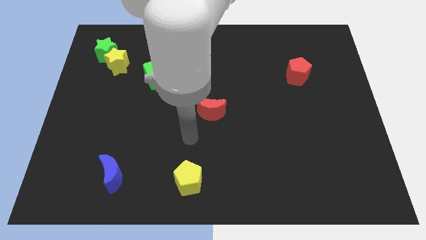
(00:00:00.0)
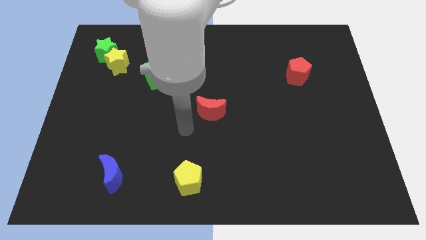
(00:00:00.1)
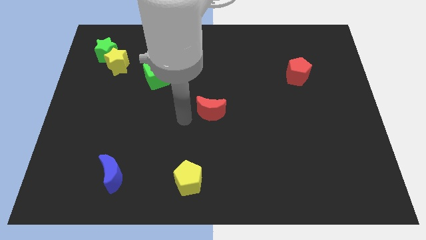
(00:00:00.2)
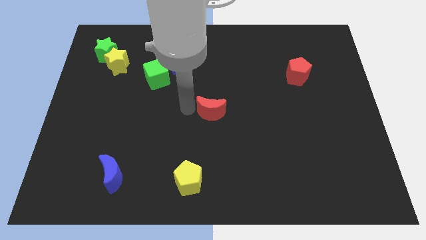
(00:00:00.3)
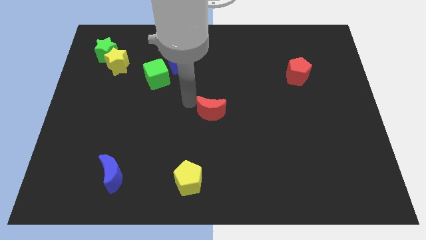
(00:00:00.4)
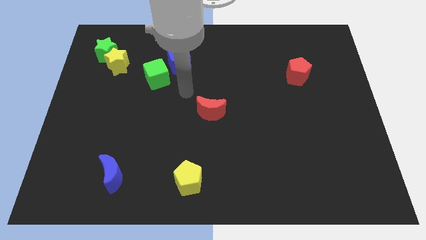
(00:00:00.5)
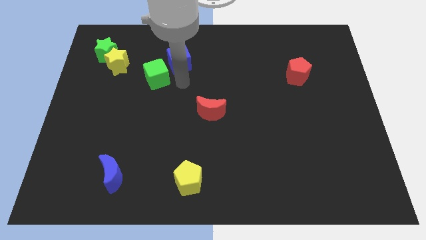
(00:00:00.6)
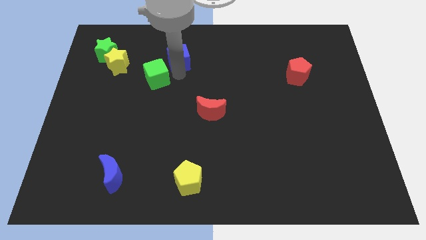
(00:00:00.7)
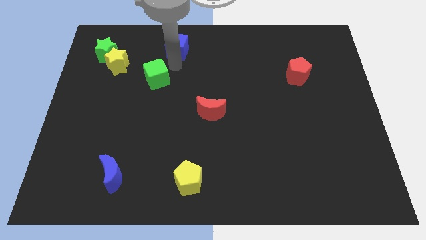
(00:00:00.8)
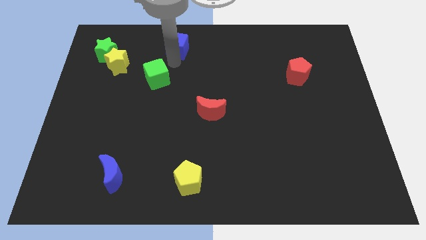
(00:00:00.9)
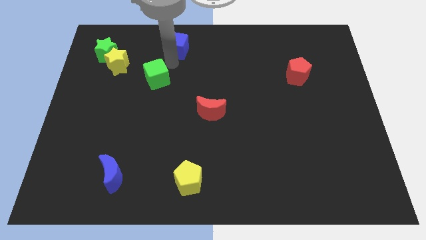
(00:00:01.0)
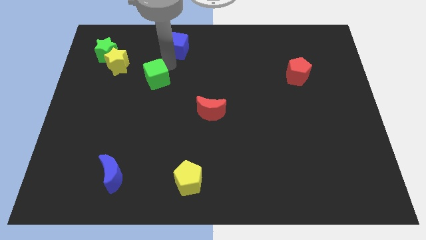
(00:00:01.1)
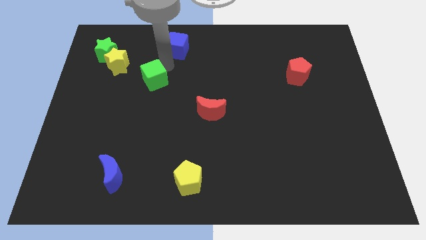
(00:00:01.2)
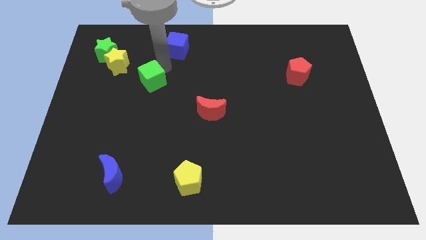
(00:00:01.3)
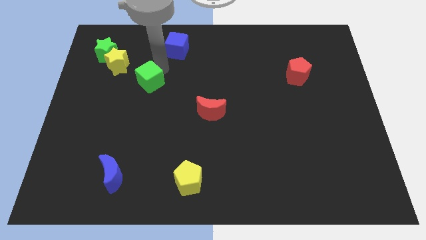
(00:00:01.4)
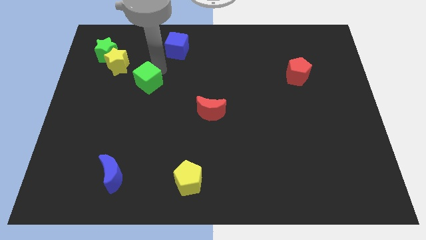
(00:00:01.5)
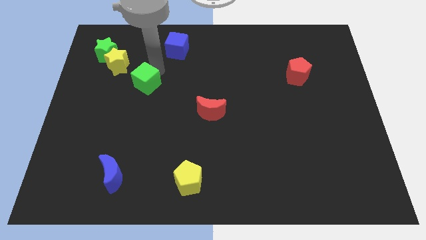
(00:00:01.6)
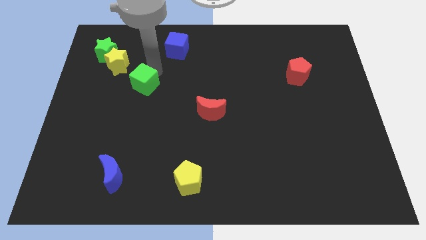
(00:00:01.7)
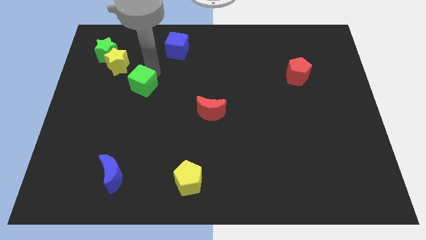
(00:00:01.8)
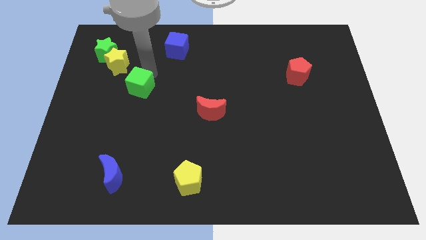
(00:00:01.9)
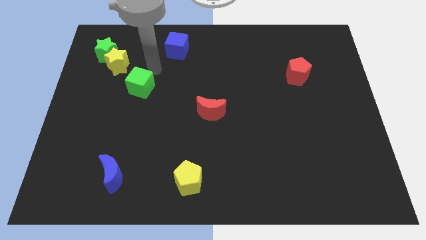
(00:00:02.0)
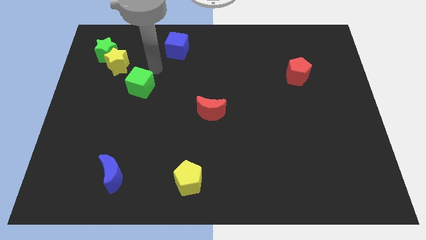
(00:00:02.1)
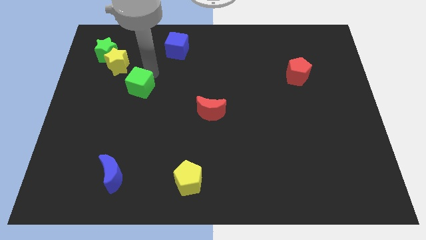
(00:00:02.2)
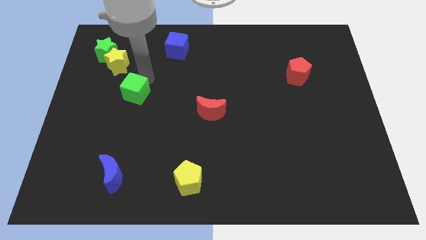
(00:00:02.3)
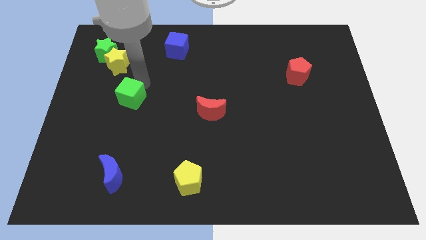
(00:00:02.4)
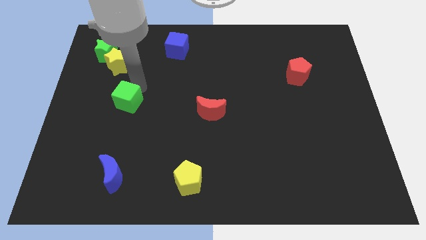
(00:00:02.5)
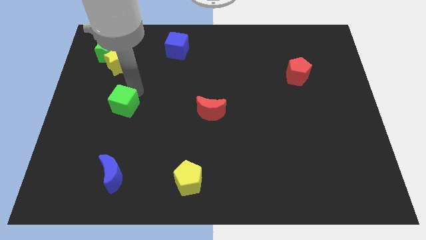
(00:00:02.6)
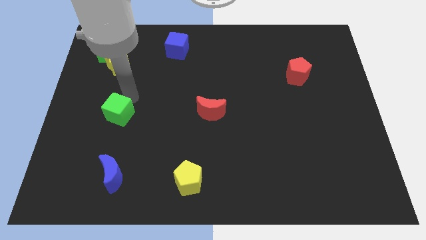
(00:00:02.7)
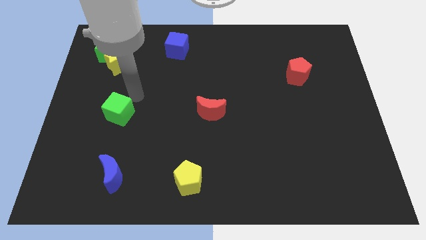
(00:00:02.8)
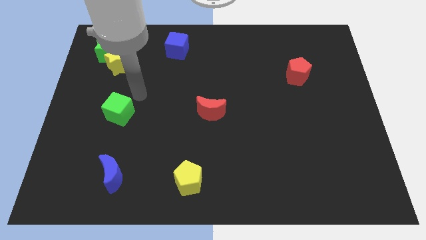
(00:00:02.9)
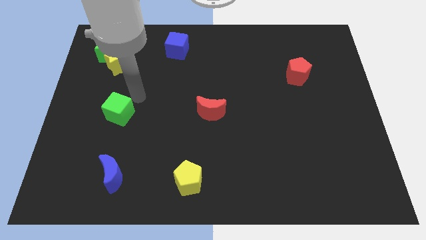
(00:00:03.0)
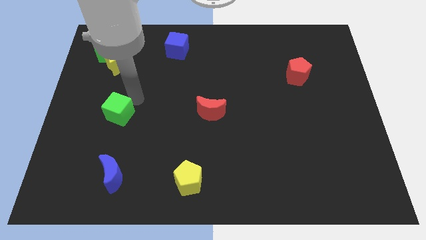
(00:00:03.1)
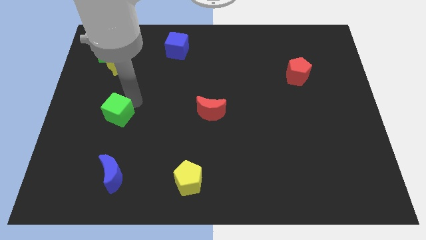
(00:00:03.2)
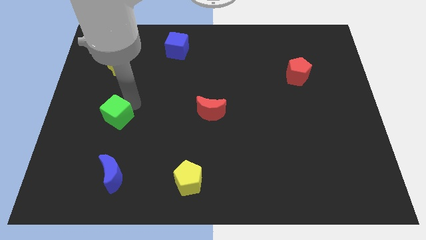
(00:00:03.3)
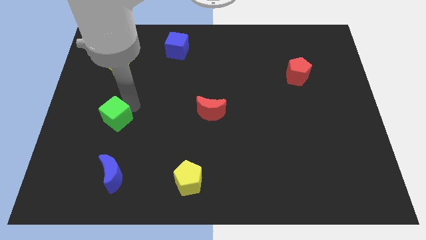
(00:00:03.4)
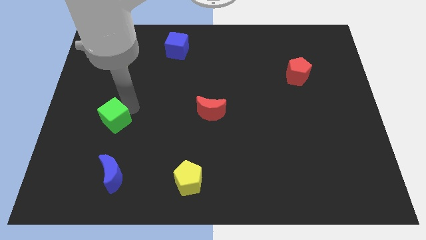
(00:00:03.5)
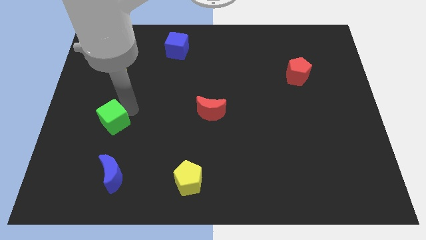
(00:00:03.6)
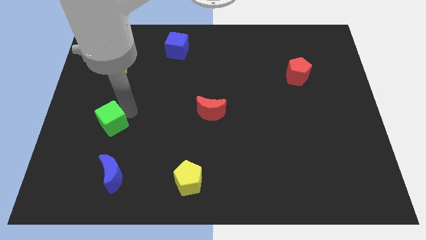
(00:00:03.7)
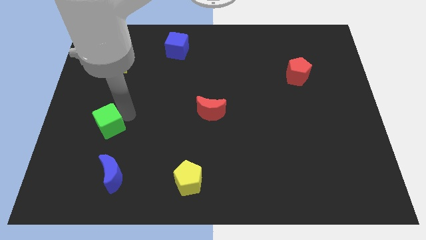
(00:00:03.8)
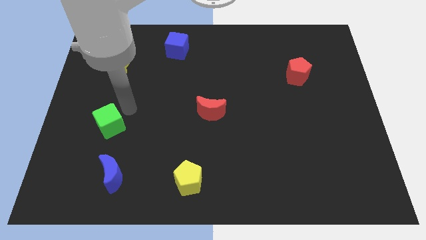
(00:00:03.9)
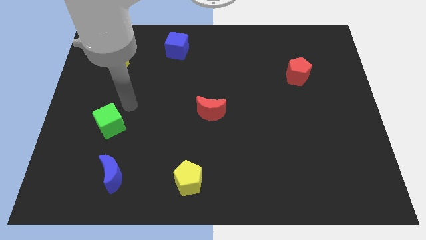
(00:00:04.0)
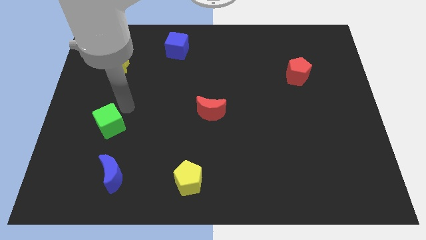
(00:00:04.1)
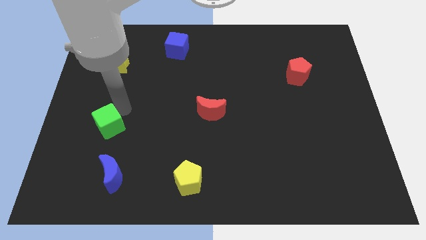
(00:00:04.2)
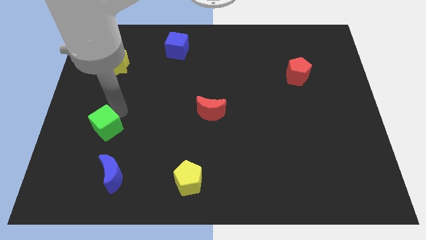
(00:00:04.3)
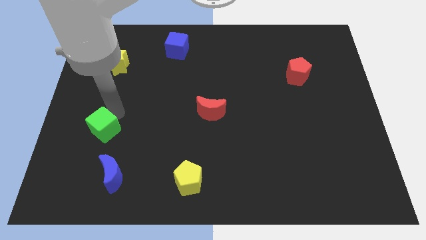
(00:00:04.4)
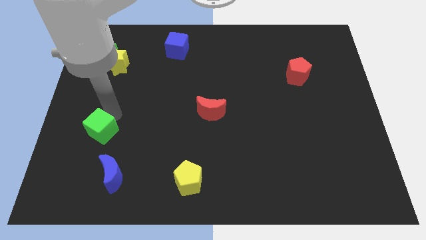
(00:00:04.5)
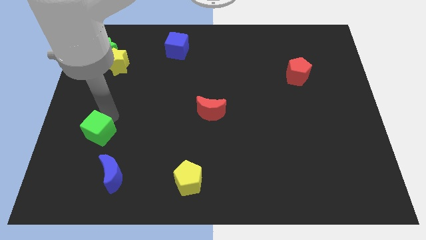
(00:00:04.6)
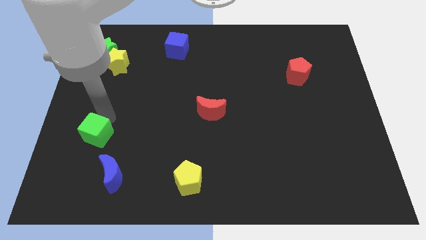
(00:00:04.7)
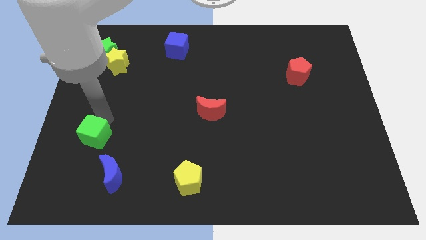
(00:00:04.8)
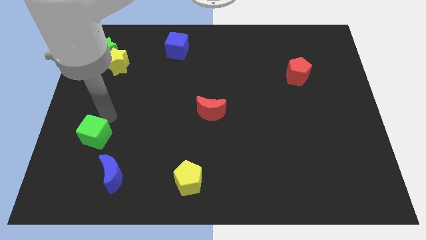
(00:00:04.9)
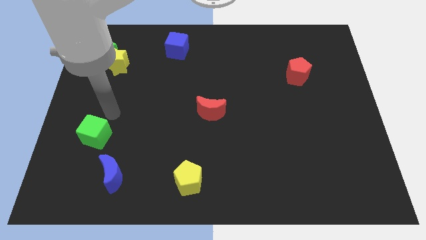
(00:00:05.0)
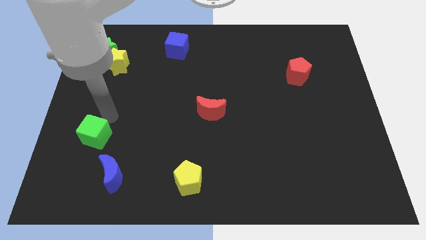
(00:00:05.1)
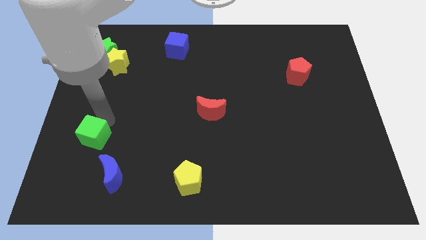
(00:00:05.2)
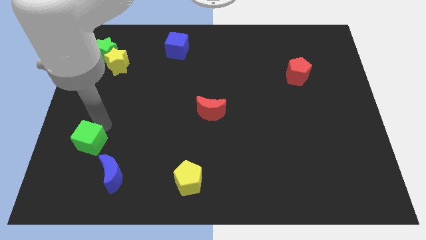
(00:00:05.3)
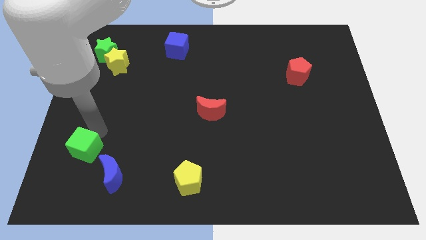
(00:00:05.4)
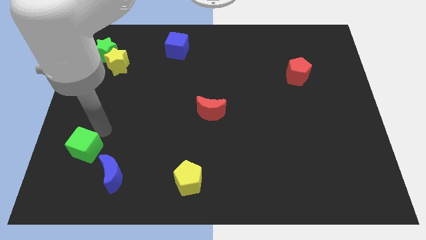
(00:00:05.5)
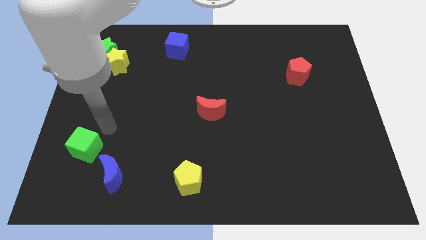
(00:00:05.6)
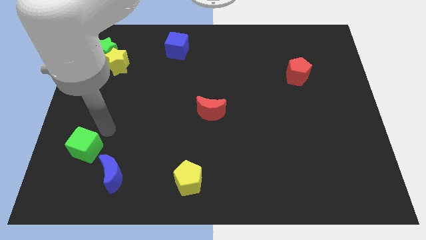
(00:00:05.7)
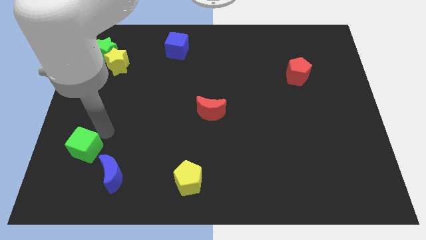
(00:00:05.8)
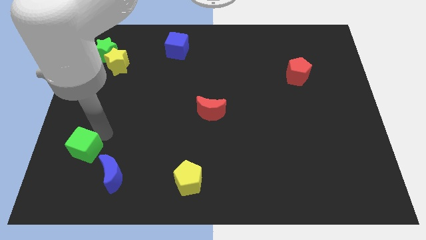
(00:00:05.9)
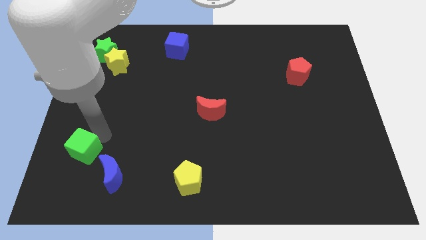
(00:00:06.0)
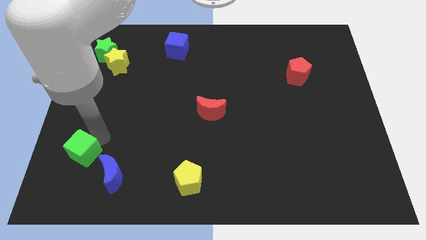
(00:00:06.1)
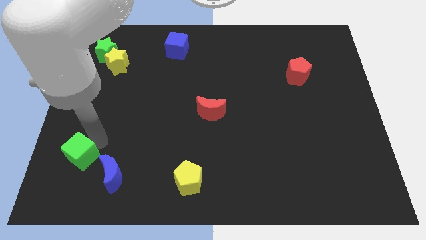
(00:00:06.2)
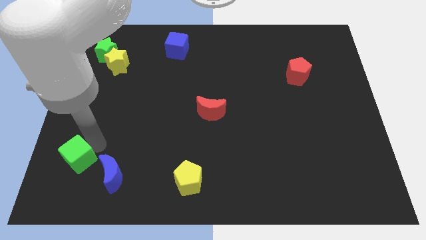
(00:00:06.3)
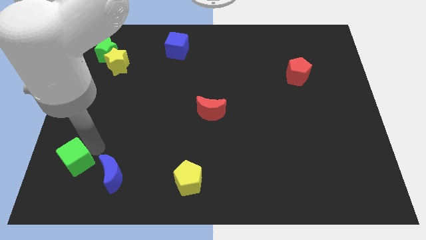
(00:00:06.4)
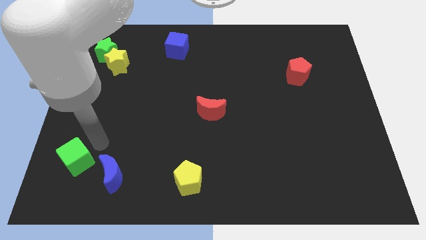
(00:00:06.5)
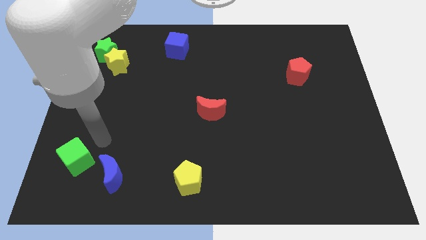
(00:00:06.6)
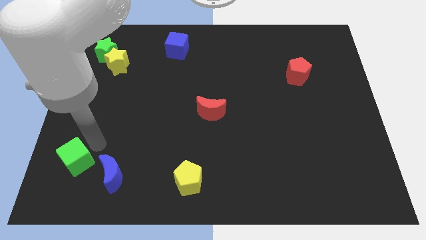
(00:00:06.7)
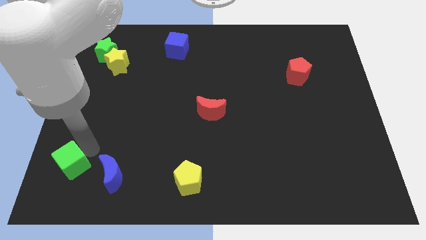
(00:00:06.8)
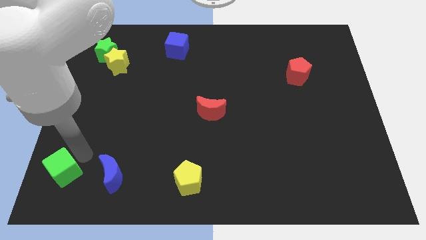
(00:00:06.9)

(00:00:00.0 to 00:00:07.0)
move the green cube to the bottom left
